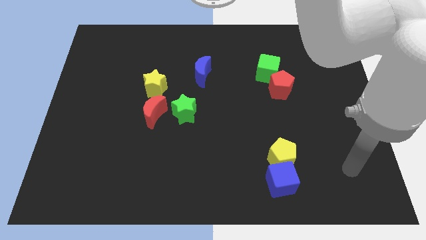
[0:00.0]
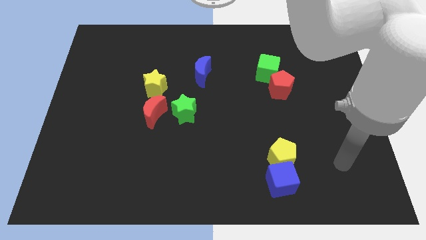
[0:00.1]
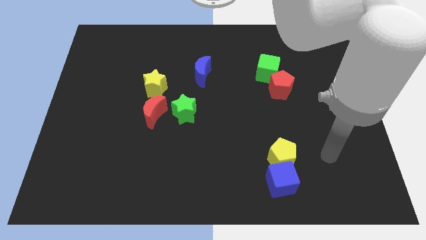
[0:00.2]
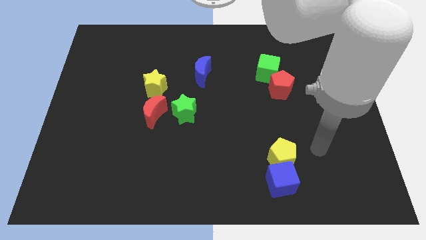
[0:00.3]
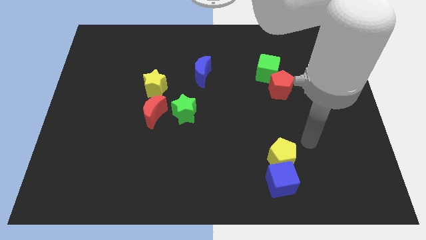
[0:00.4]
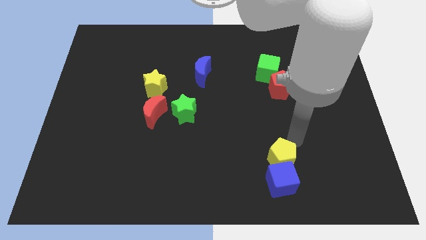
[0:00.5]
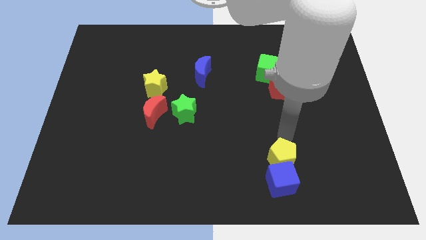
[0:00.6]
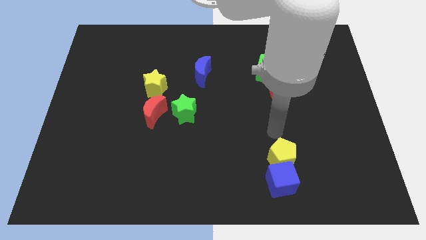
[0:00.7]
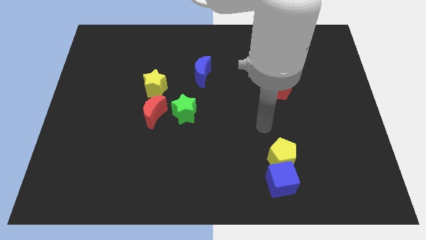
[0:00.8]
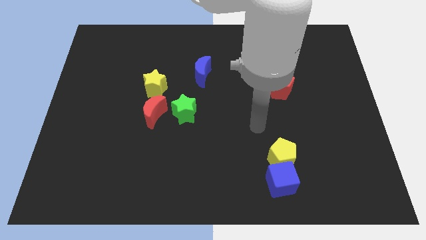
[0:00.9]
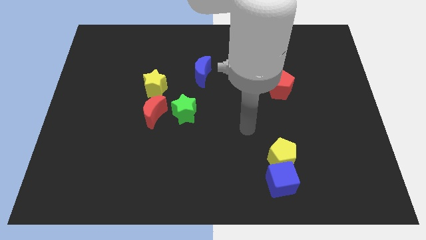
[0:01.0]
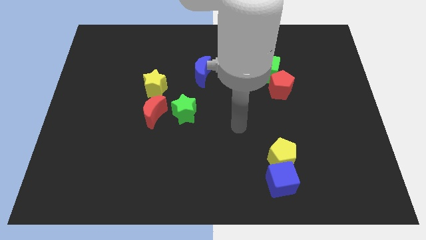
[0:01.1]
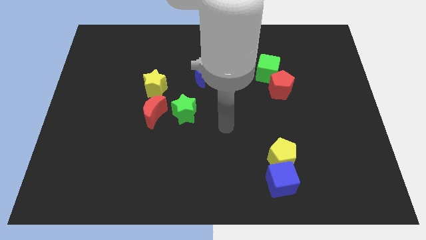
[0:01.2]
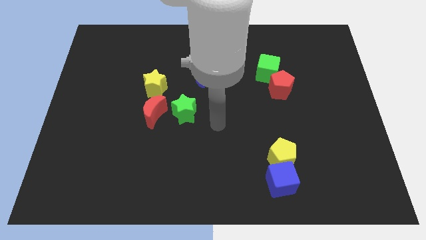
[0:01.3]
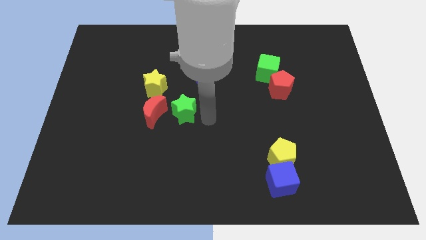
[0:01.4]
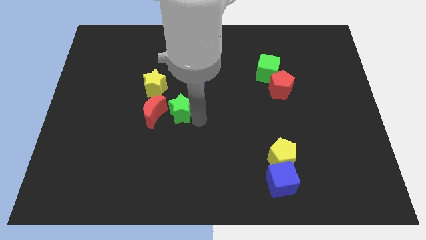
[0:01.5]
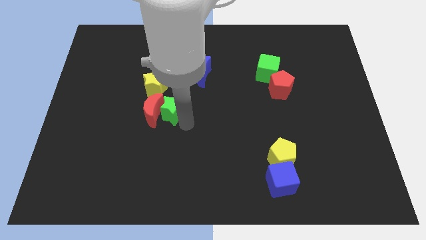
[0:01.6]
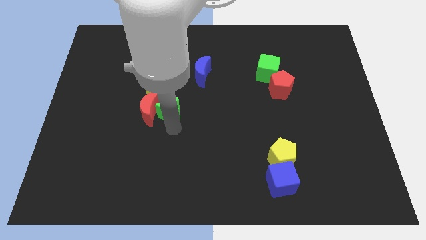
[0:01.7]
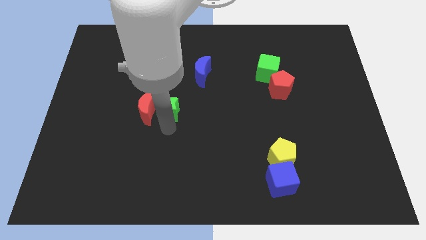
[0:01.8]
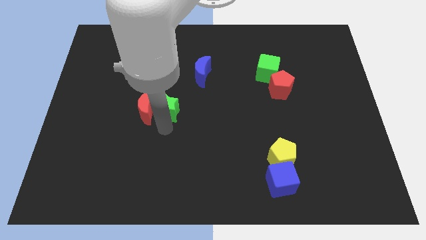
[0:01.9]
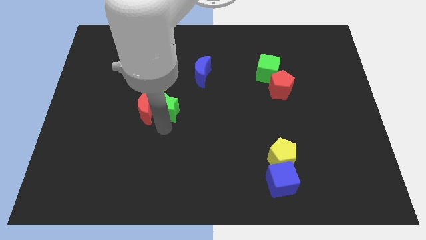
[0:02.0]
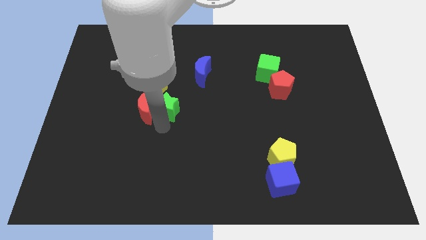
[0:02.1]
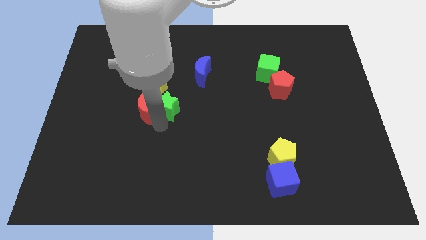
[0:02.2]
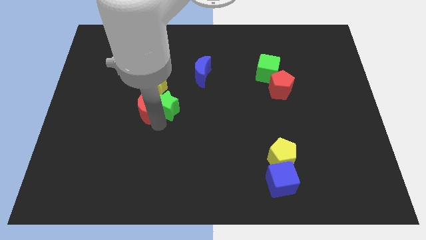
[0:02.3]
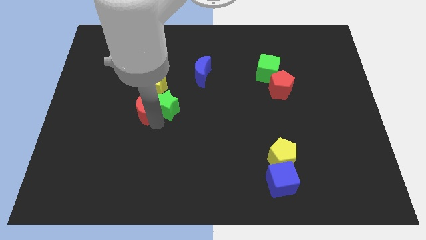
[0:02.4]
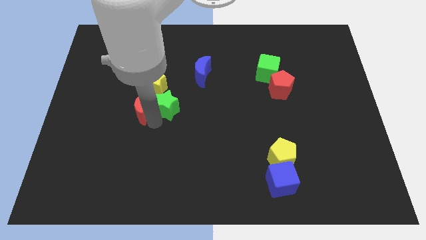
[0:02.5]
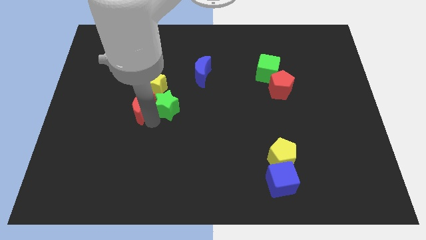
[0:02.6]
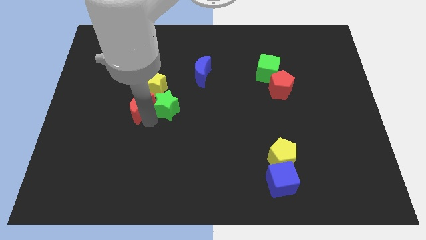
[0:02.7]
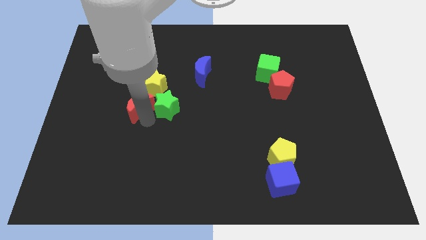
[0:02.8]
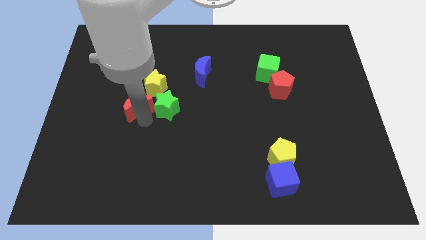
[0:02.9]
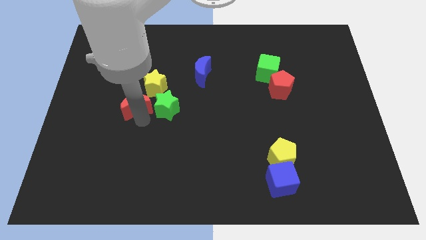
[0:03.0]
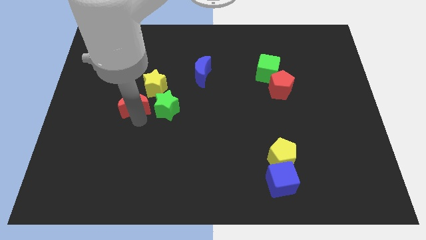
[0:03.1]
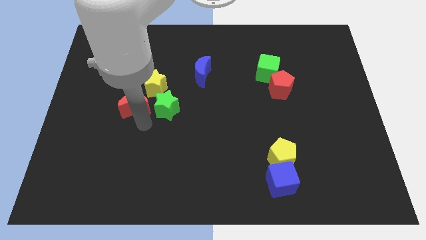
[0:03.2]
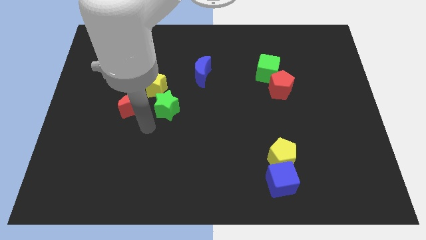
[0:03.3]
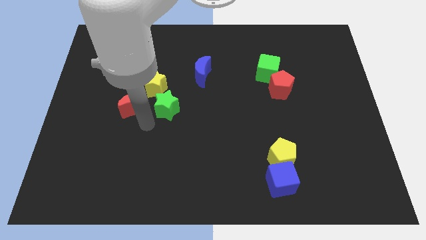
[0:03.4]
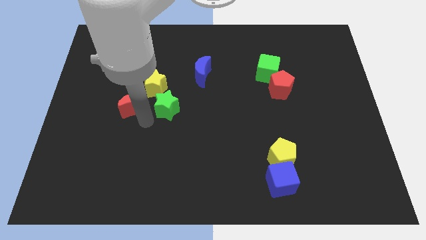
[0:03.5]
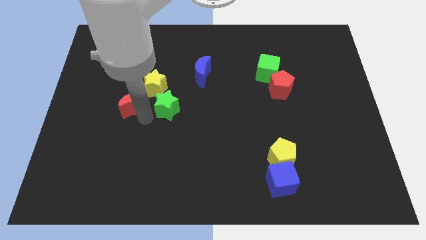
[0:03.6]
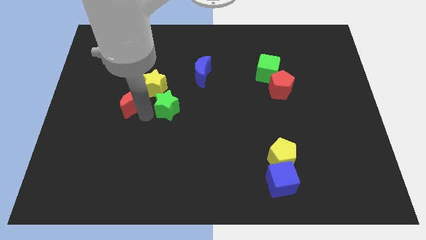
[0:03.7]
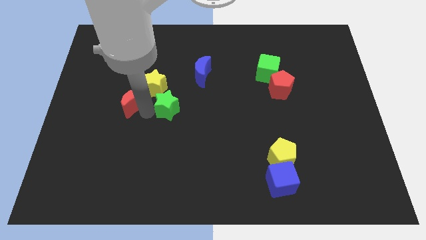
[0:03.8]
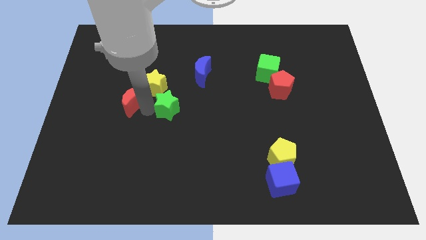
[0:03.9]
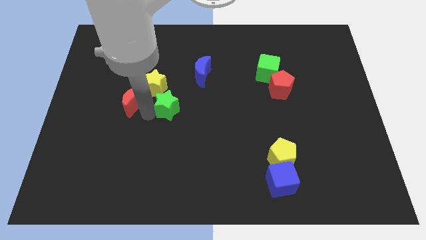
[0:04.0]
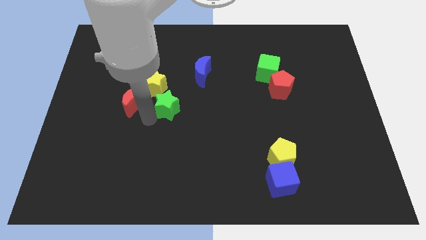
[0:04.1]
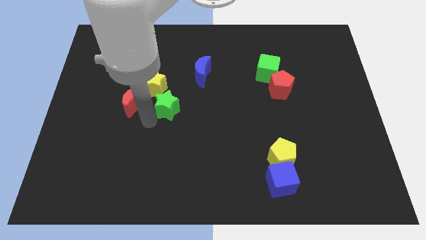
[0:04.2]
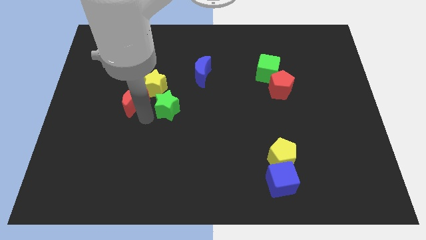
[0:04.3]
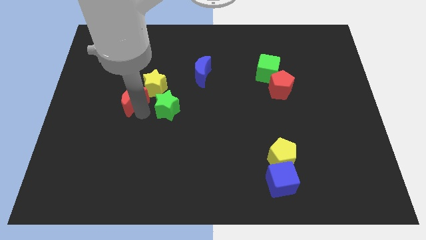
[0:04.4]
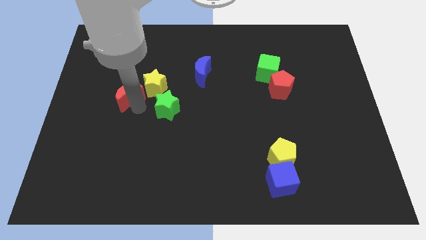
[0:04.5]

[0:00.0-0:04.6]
slide the red moon diagonally upwards and to the left a little bit

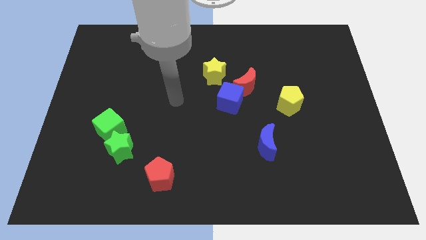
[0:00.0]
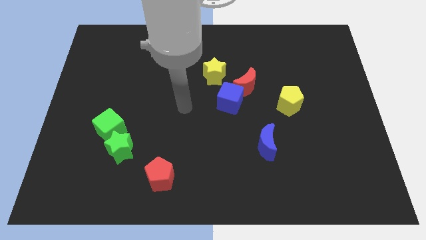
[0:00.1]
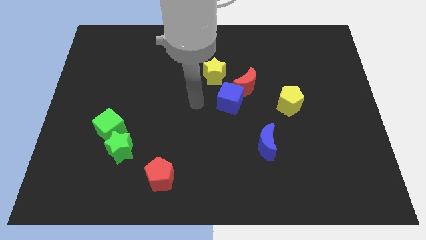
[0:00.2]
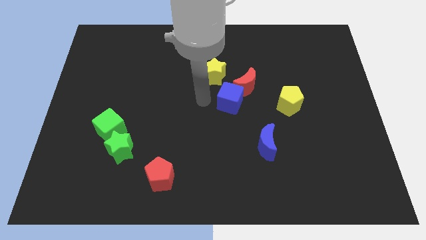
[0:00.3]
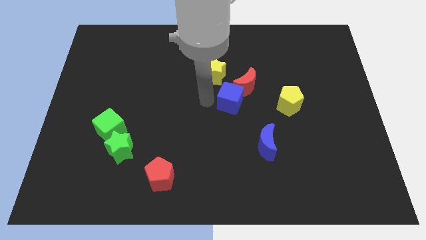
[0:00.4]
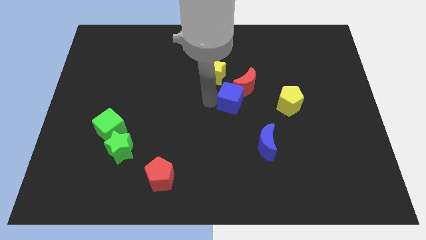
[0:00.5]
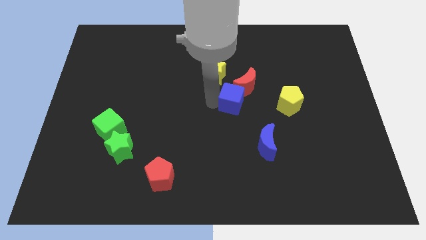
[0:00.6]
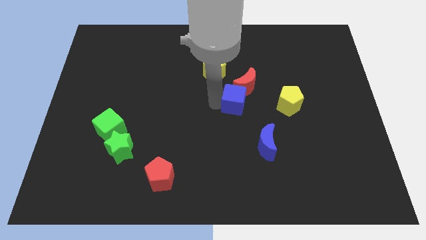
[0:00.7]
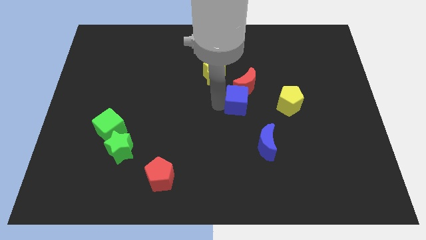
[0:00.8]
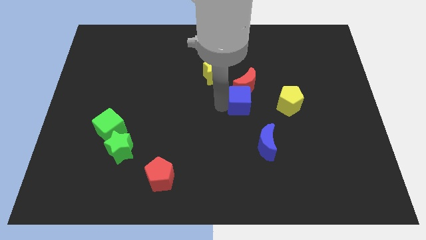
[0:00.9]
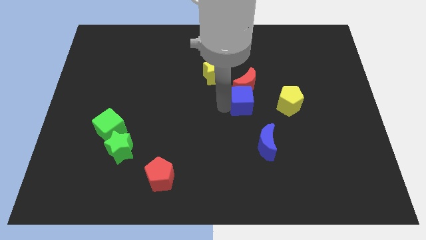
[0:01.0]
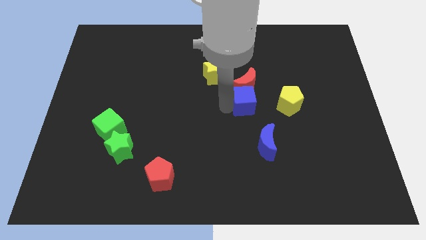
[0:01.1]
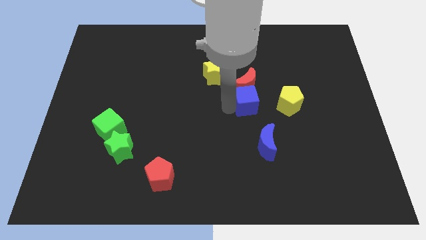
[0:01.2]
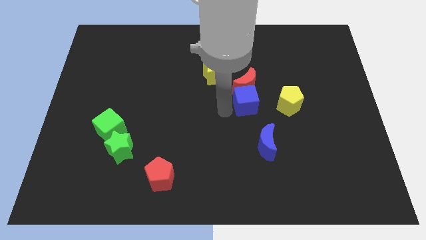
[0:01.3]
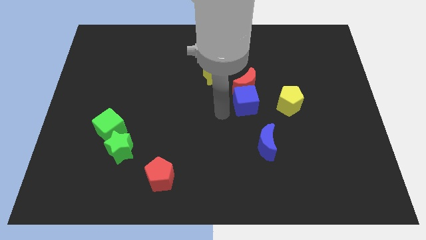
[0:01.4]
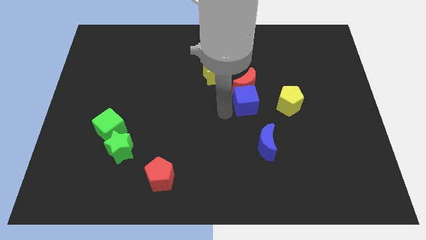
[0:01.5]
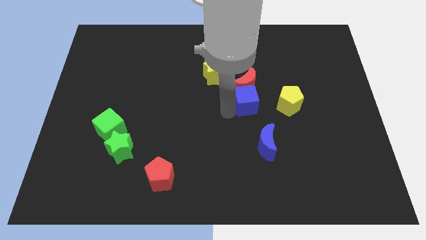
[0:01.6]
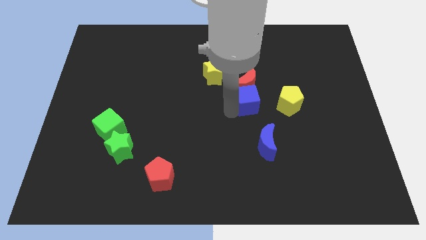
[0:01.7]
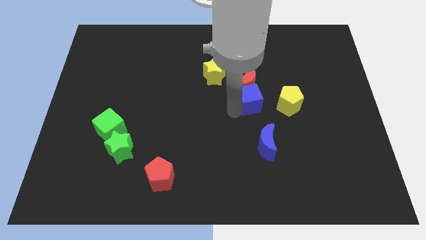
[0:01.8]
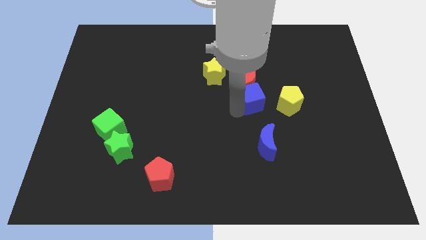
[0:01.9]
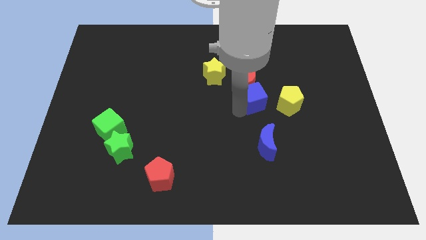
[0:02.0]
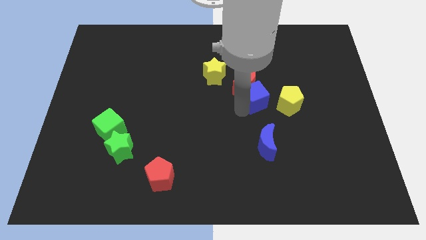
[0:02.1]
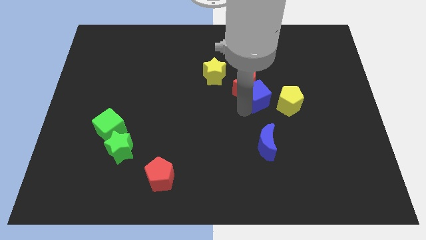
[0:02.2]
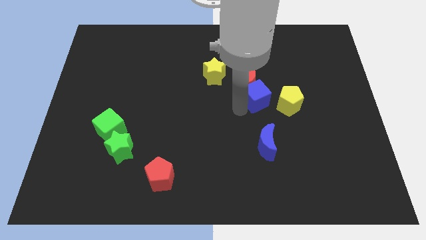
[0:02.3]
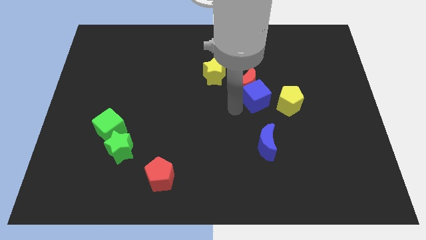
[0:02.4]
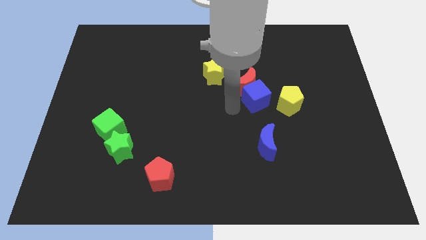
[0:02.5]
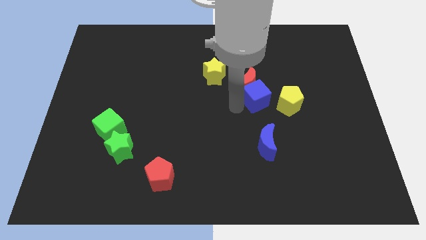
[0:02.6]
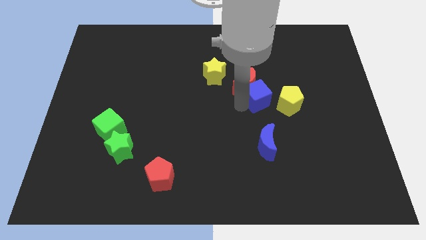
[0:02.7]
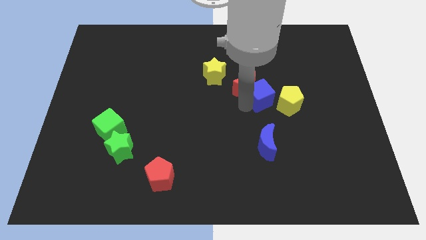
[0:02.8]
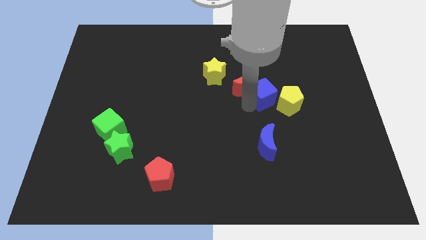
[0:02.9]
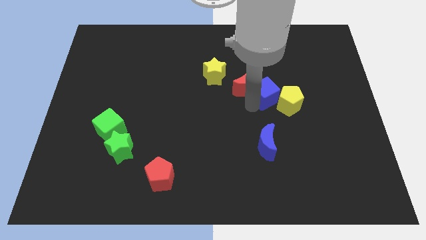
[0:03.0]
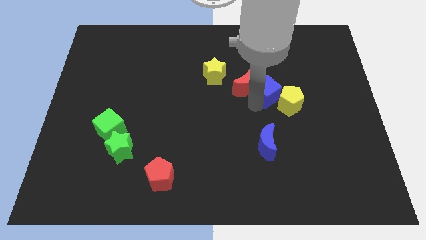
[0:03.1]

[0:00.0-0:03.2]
move the blue cube diagonally up and right a bit

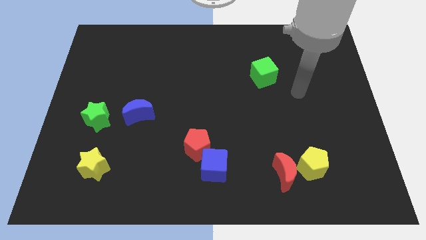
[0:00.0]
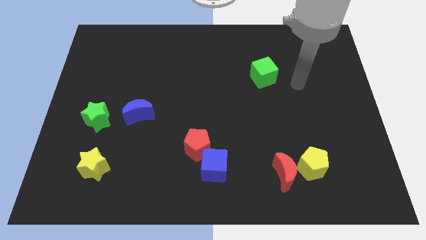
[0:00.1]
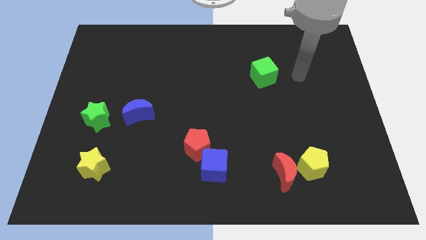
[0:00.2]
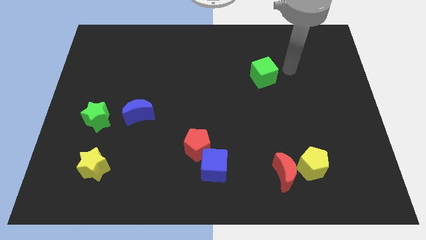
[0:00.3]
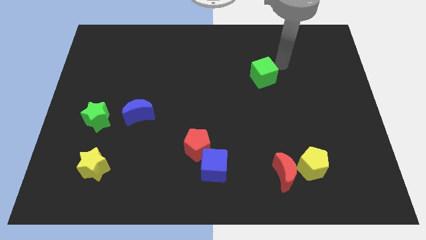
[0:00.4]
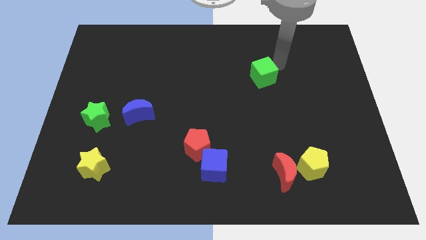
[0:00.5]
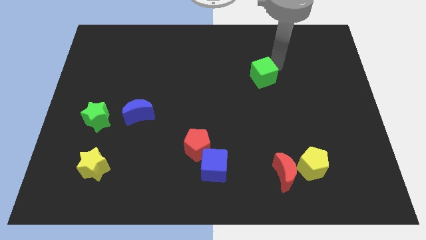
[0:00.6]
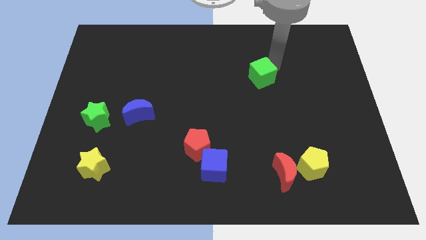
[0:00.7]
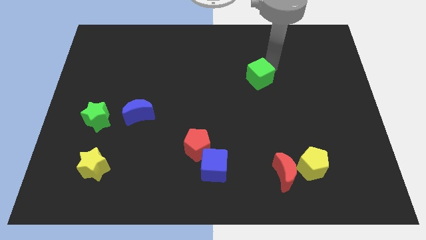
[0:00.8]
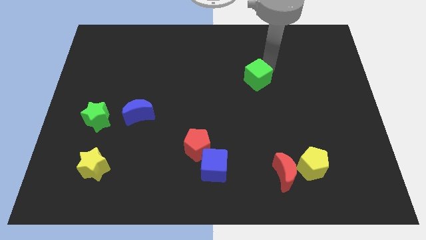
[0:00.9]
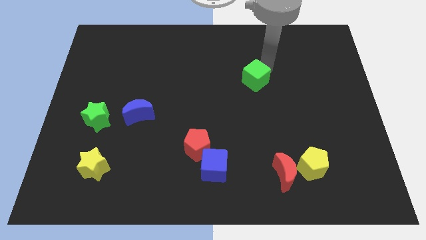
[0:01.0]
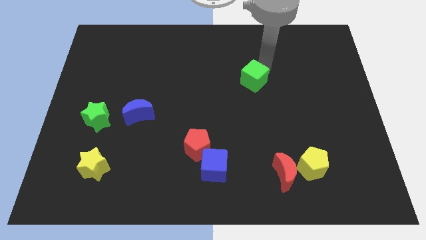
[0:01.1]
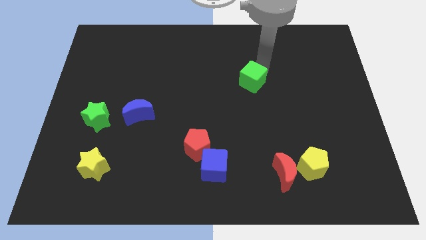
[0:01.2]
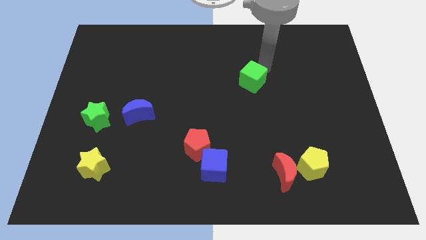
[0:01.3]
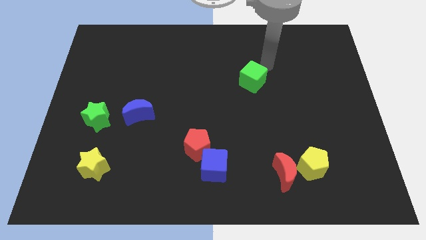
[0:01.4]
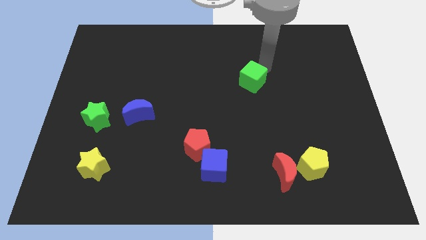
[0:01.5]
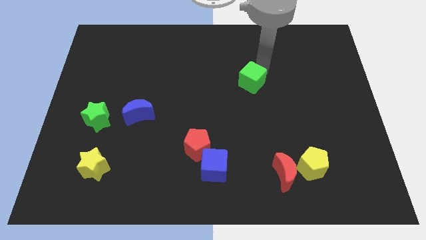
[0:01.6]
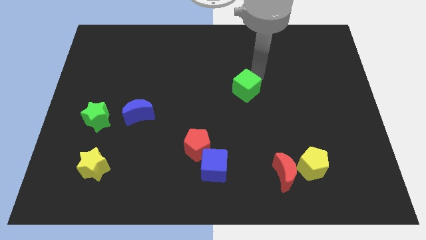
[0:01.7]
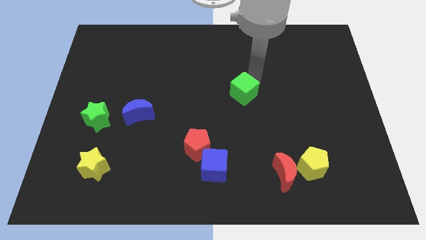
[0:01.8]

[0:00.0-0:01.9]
slide the green cube a bit downwards and to the left
